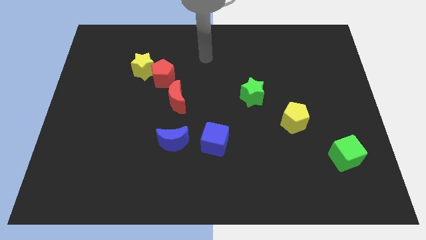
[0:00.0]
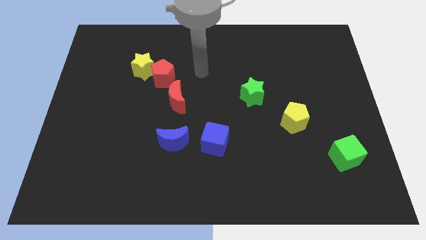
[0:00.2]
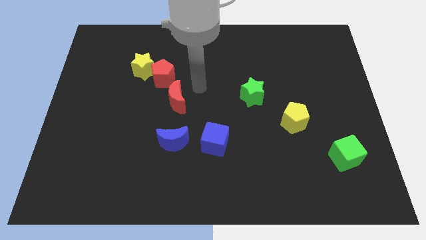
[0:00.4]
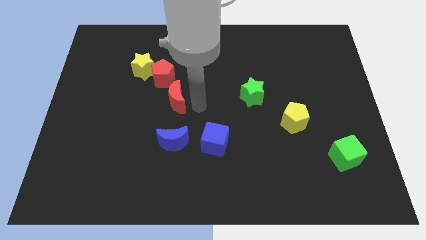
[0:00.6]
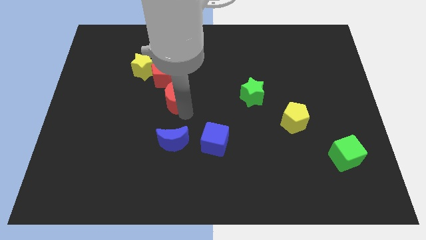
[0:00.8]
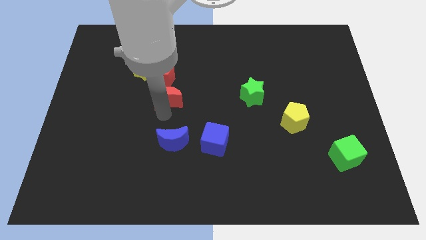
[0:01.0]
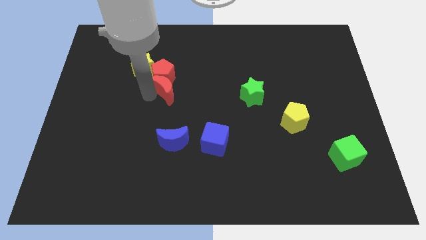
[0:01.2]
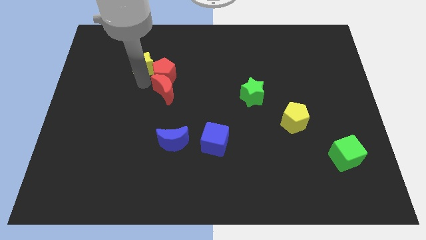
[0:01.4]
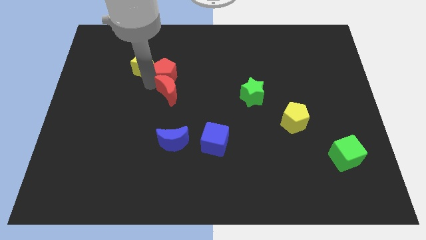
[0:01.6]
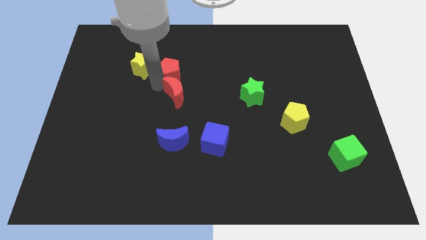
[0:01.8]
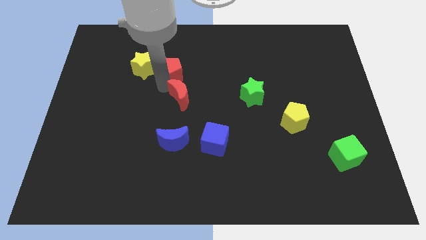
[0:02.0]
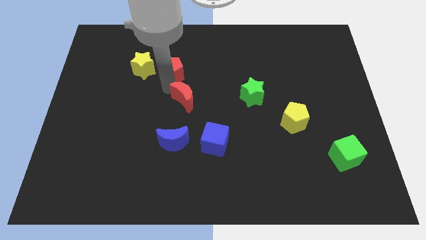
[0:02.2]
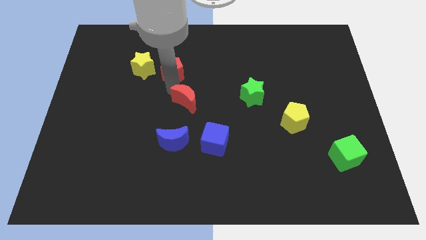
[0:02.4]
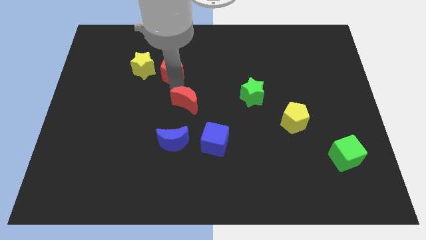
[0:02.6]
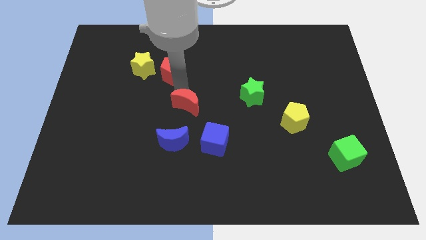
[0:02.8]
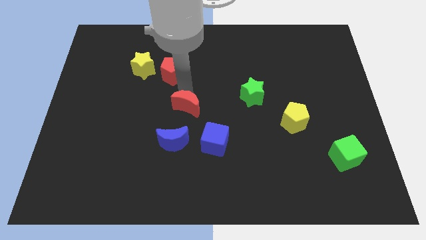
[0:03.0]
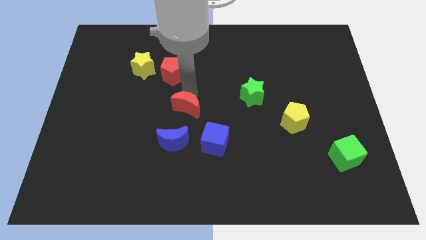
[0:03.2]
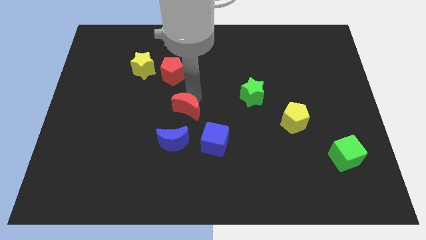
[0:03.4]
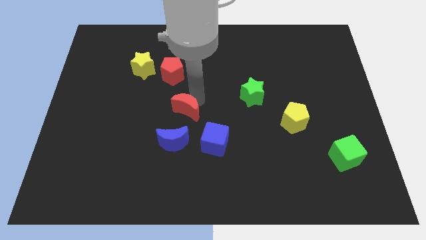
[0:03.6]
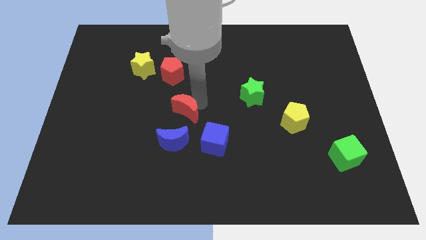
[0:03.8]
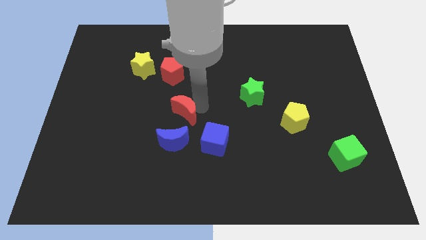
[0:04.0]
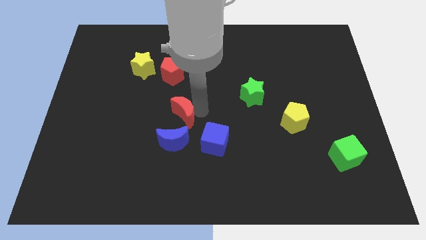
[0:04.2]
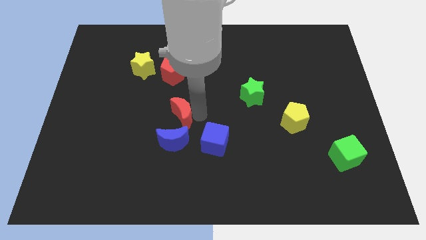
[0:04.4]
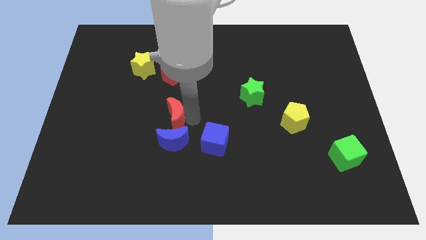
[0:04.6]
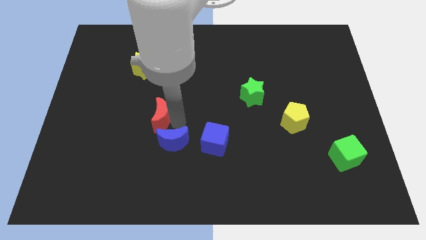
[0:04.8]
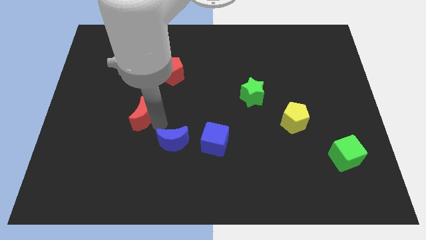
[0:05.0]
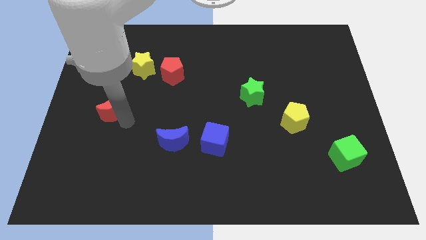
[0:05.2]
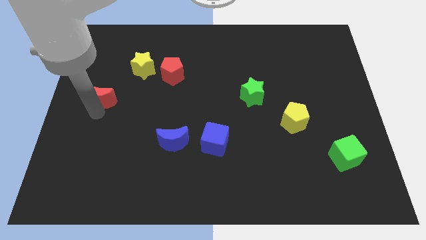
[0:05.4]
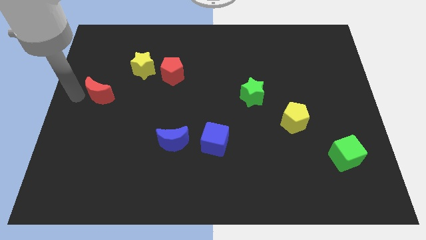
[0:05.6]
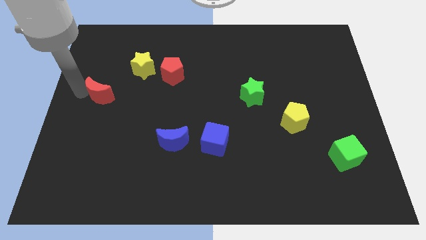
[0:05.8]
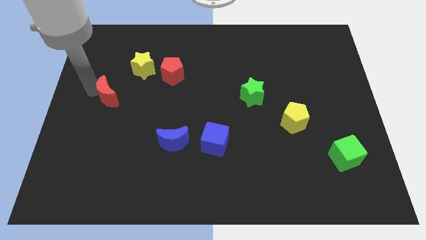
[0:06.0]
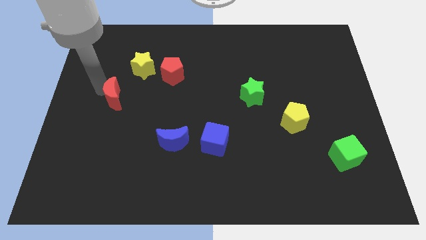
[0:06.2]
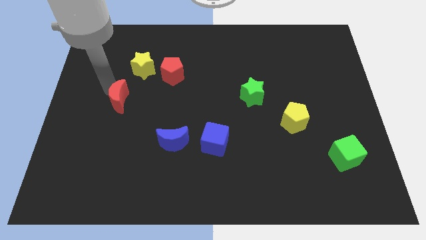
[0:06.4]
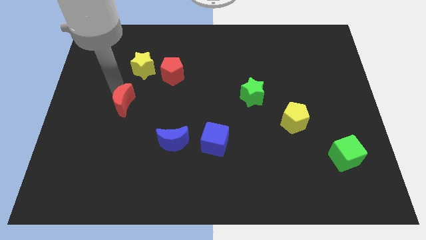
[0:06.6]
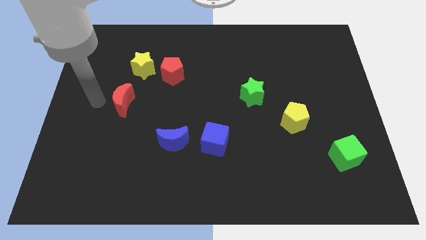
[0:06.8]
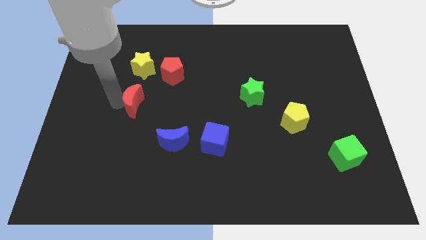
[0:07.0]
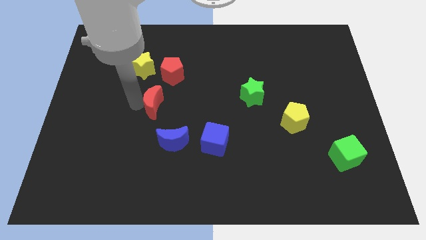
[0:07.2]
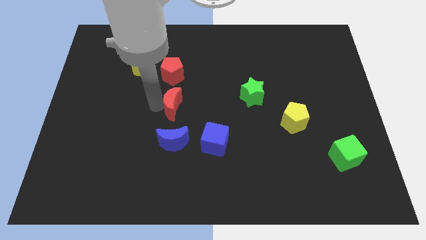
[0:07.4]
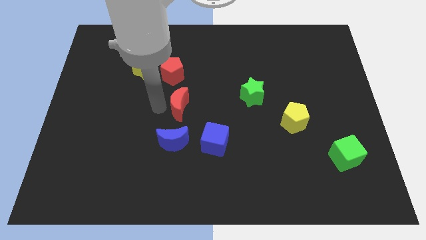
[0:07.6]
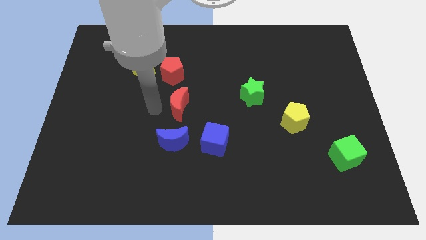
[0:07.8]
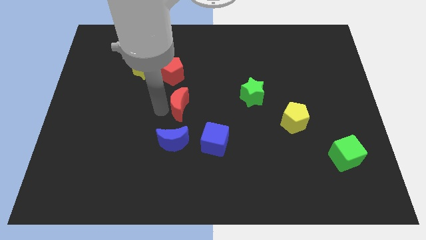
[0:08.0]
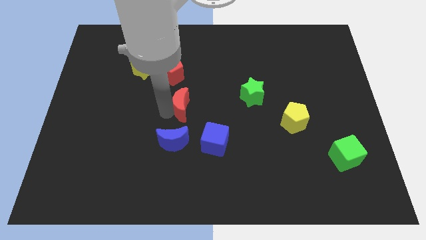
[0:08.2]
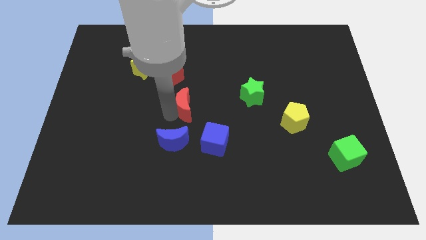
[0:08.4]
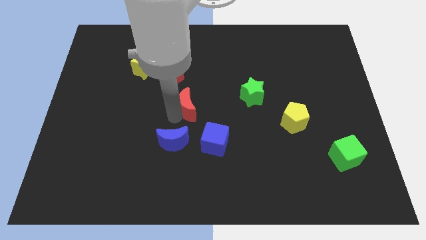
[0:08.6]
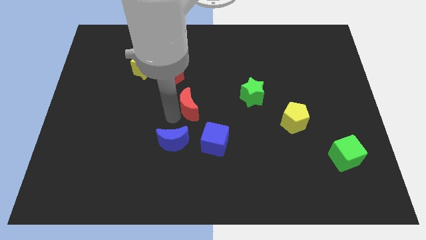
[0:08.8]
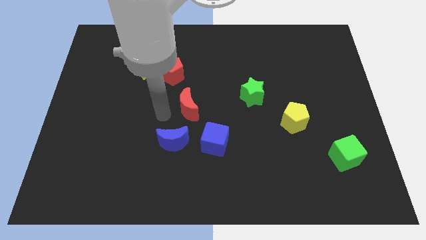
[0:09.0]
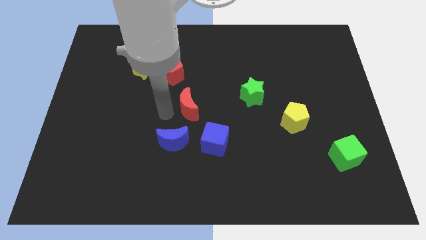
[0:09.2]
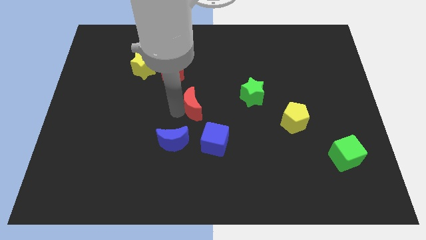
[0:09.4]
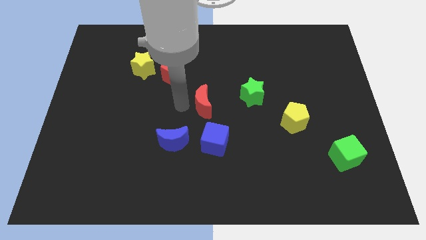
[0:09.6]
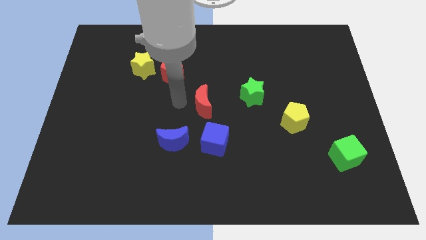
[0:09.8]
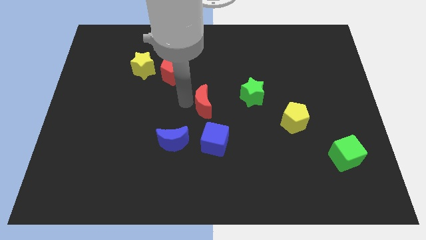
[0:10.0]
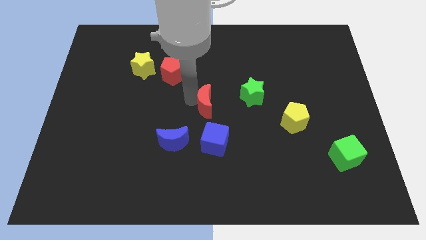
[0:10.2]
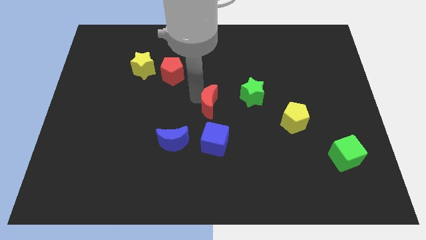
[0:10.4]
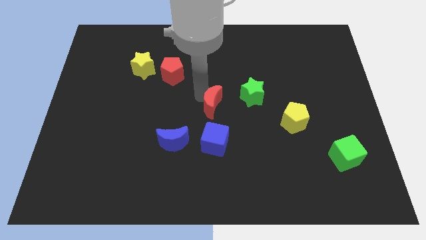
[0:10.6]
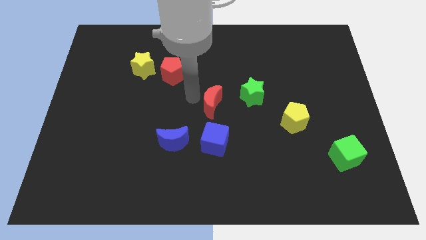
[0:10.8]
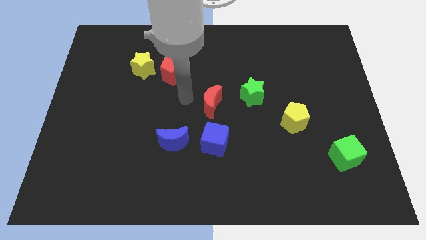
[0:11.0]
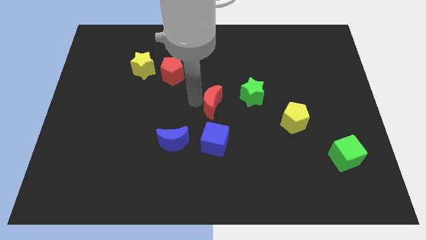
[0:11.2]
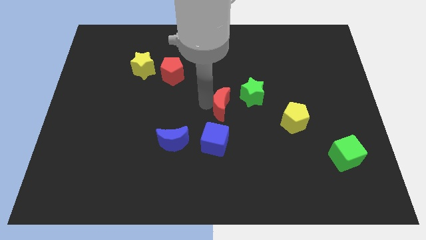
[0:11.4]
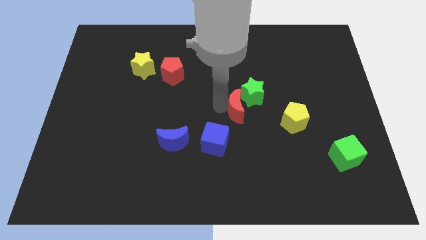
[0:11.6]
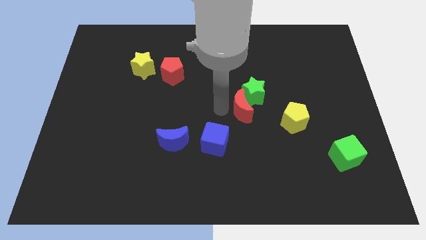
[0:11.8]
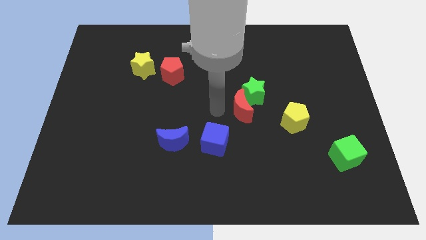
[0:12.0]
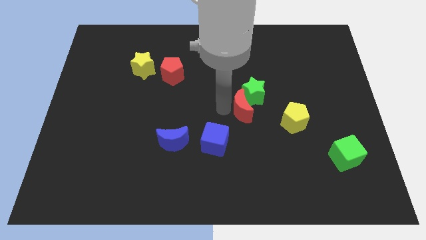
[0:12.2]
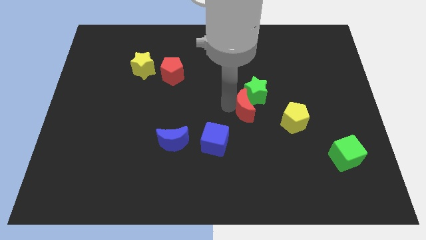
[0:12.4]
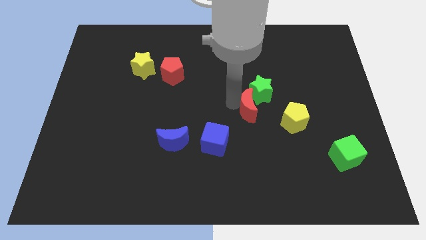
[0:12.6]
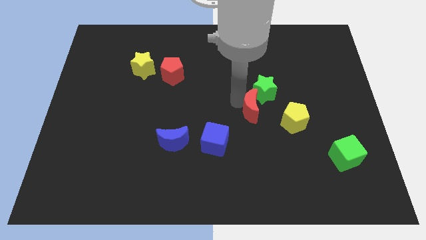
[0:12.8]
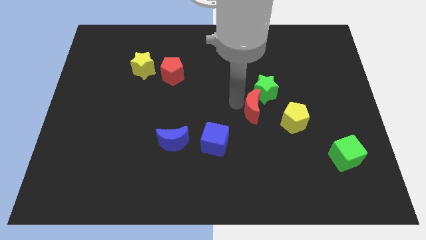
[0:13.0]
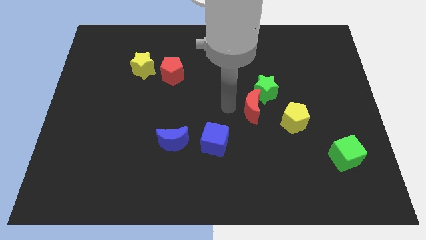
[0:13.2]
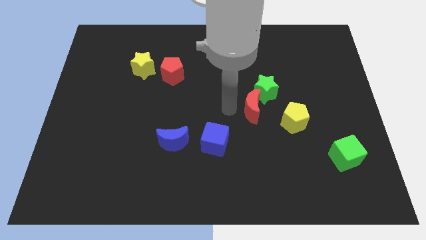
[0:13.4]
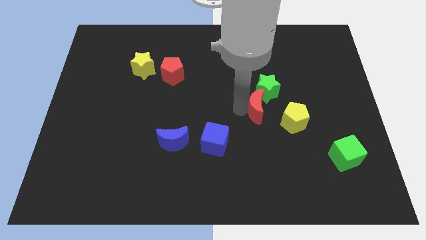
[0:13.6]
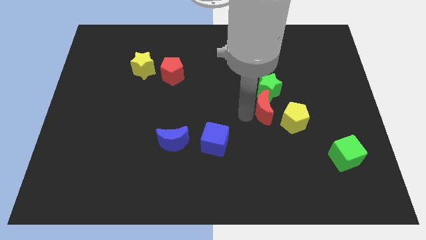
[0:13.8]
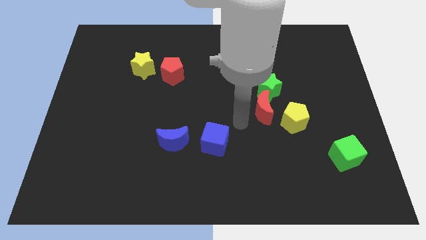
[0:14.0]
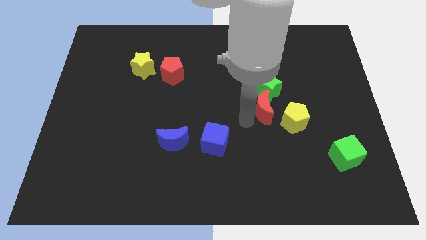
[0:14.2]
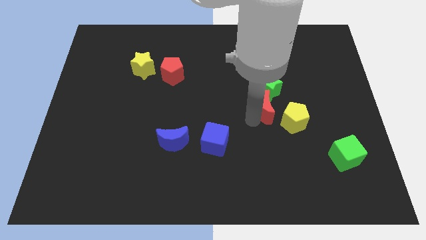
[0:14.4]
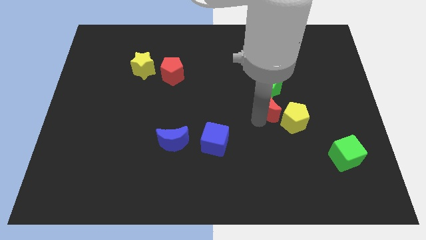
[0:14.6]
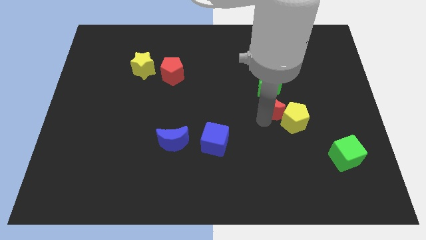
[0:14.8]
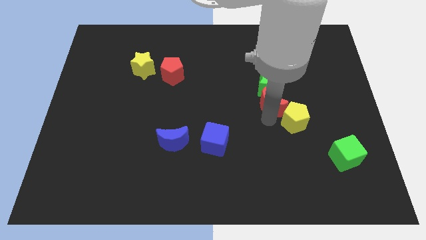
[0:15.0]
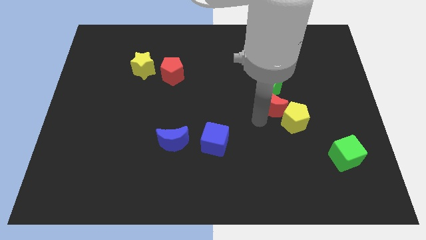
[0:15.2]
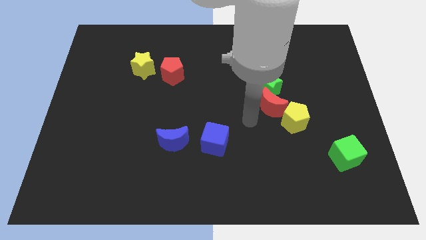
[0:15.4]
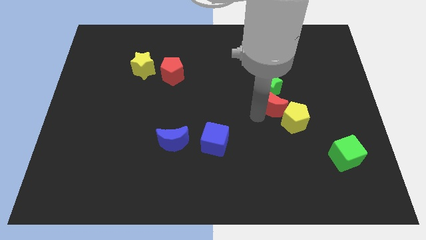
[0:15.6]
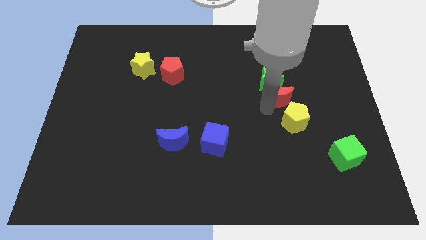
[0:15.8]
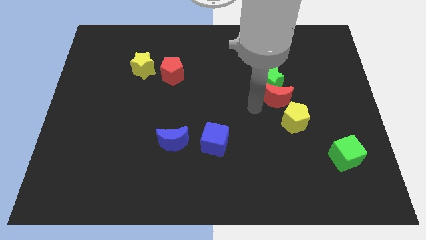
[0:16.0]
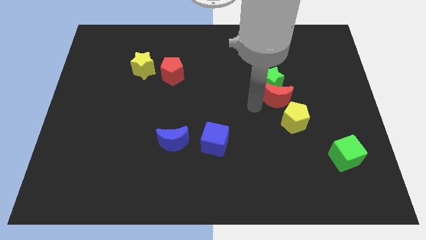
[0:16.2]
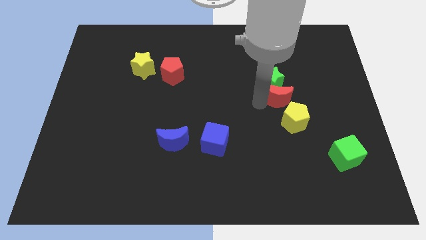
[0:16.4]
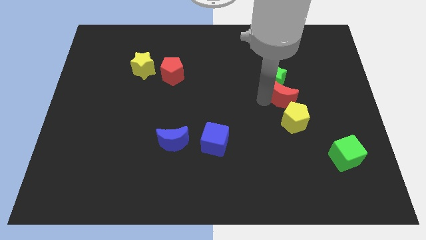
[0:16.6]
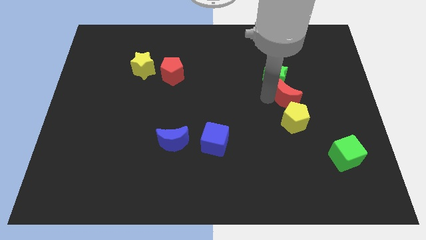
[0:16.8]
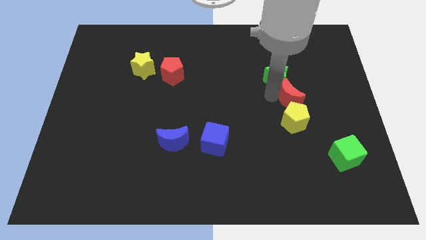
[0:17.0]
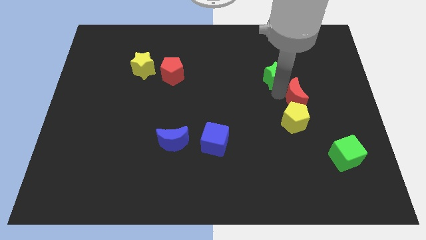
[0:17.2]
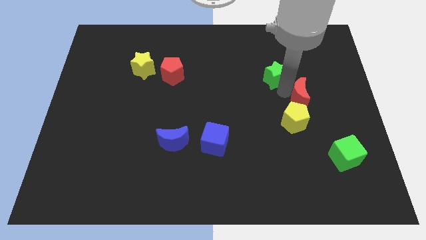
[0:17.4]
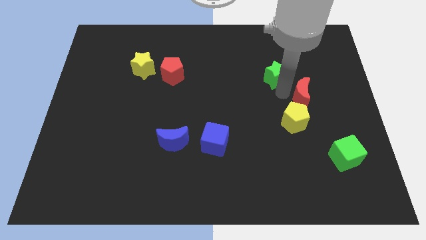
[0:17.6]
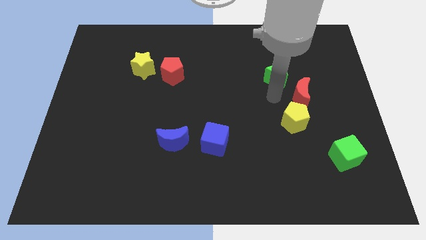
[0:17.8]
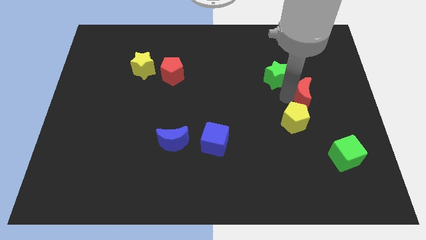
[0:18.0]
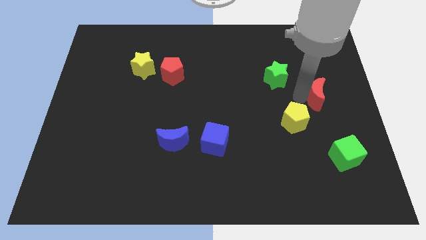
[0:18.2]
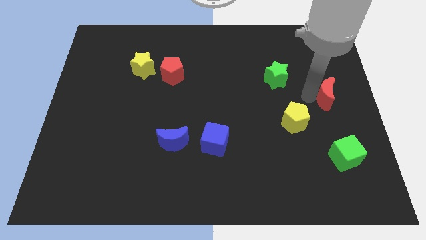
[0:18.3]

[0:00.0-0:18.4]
slide the red moon to the right side of the board
